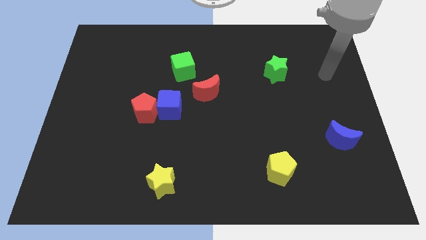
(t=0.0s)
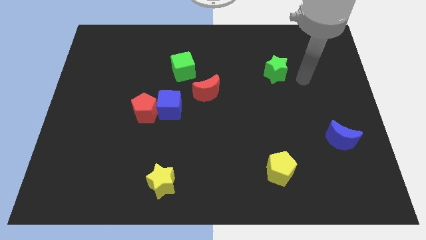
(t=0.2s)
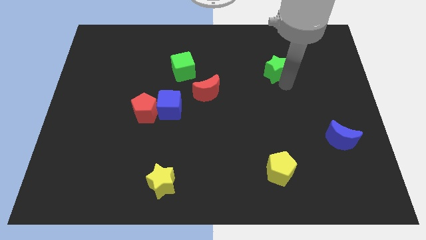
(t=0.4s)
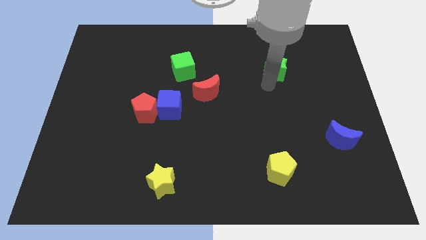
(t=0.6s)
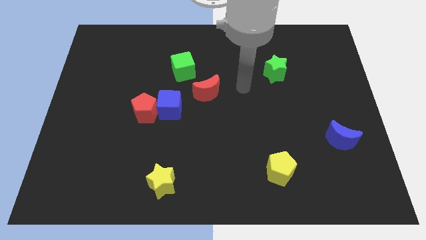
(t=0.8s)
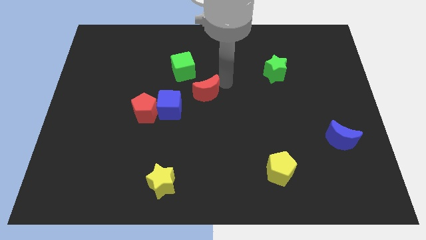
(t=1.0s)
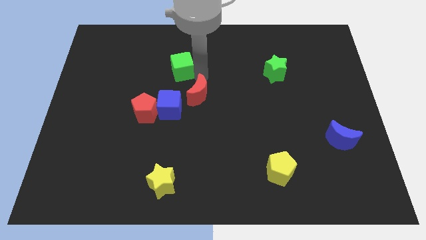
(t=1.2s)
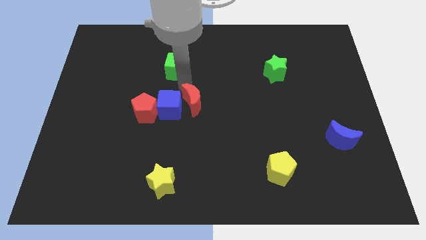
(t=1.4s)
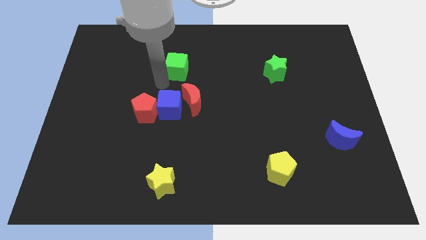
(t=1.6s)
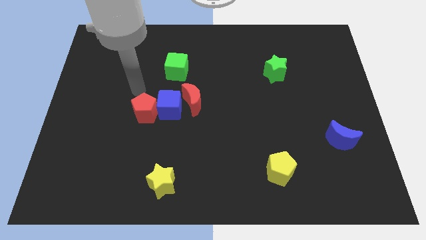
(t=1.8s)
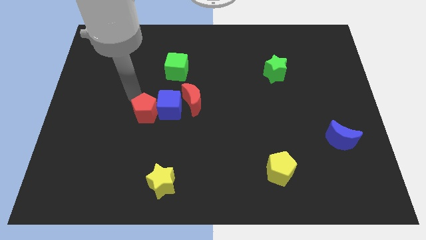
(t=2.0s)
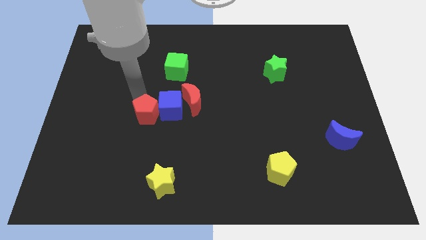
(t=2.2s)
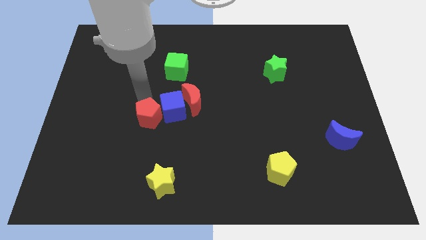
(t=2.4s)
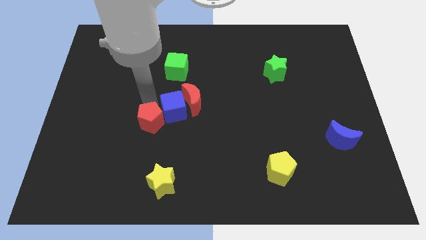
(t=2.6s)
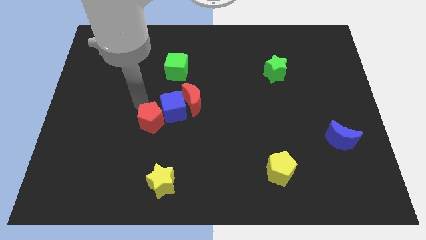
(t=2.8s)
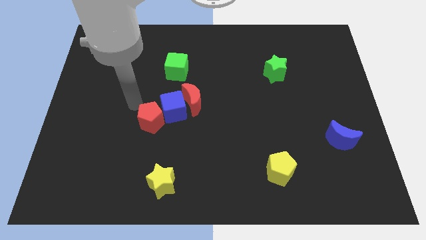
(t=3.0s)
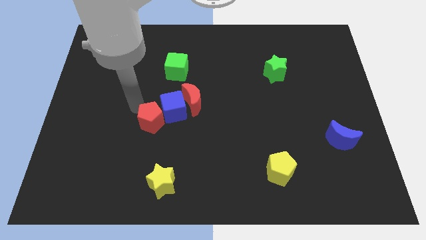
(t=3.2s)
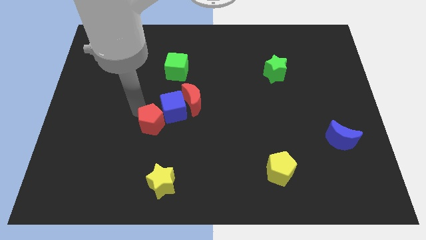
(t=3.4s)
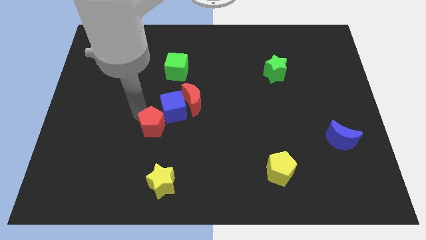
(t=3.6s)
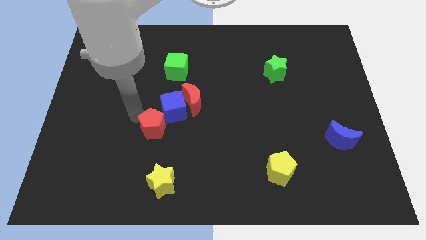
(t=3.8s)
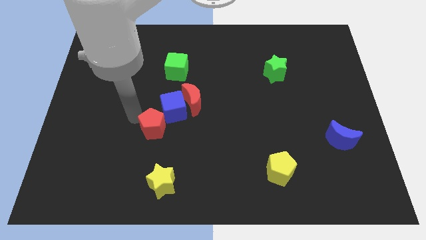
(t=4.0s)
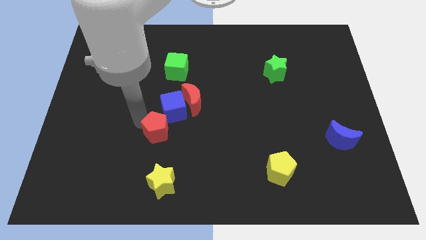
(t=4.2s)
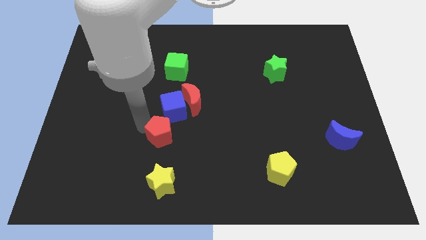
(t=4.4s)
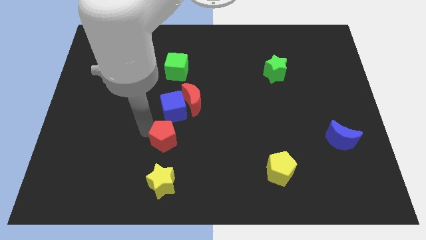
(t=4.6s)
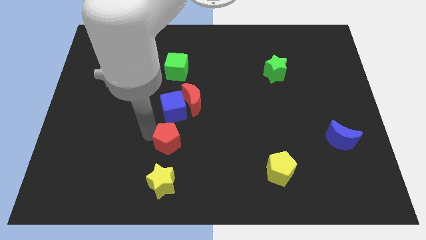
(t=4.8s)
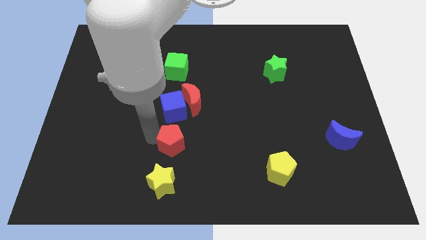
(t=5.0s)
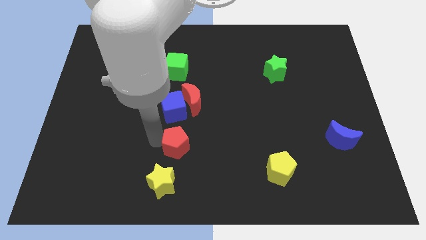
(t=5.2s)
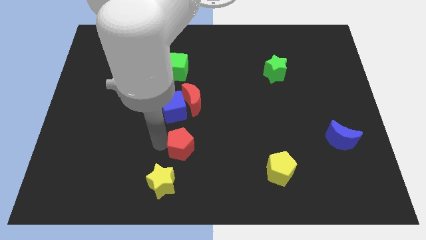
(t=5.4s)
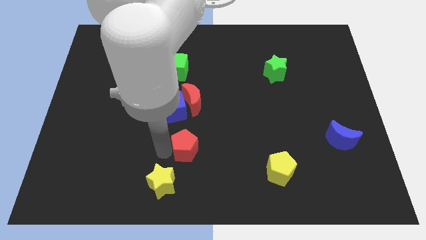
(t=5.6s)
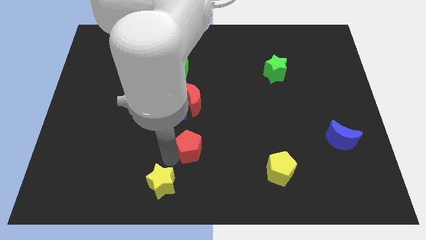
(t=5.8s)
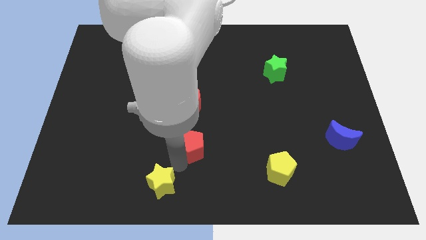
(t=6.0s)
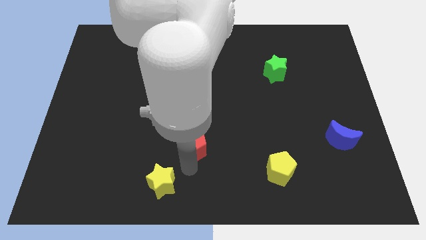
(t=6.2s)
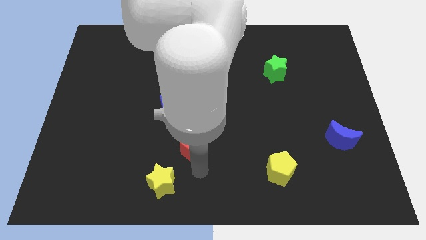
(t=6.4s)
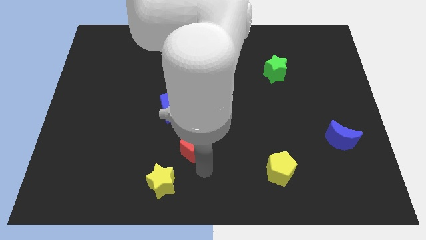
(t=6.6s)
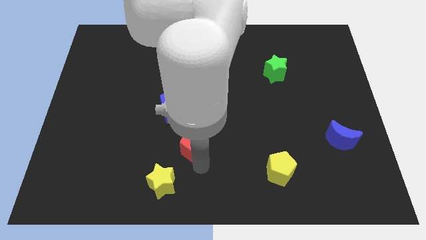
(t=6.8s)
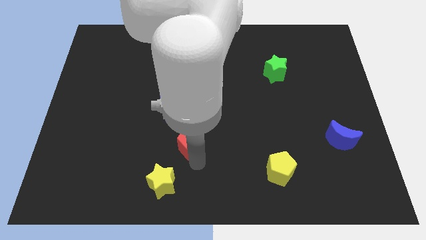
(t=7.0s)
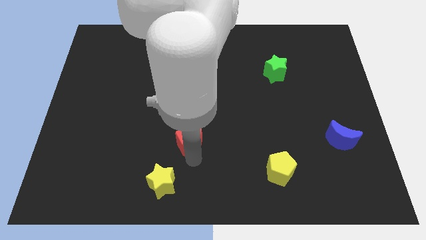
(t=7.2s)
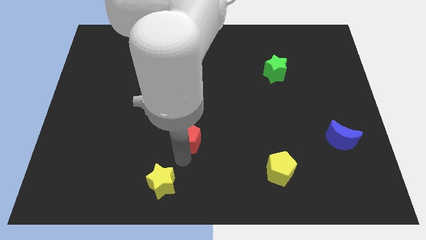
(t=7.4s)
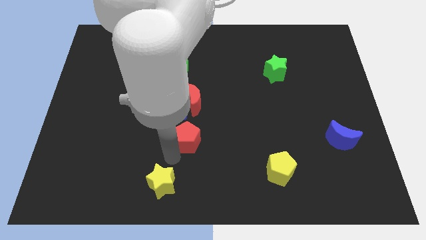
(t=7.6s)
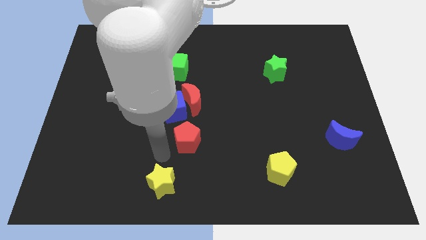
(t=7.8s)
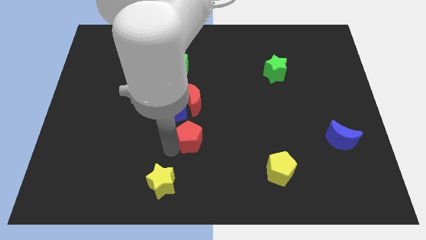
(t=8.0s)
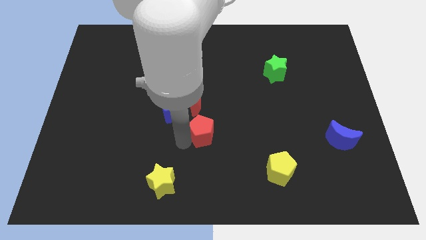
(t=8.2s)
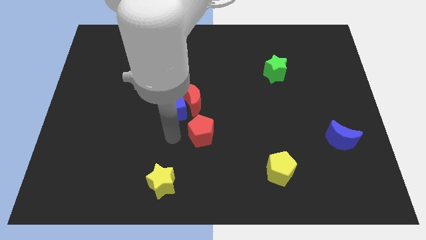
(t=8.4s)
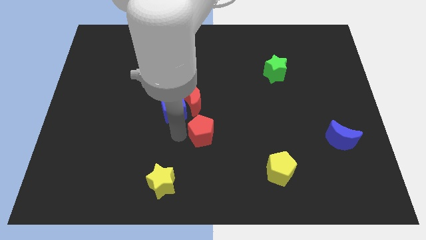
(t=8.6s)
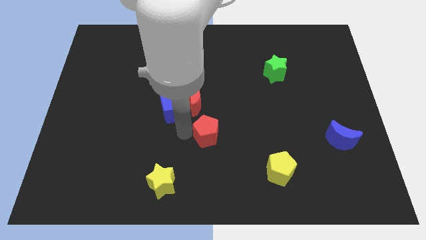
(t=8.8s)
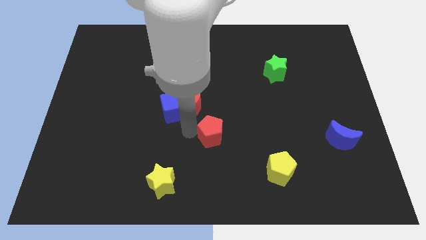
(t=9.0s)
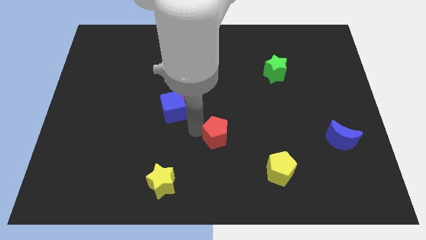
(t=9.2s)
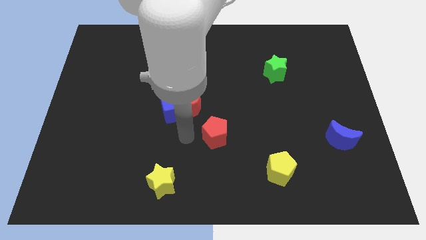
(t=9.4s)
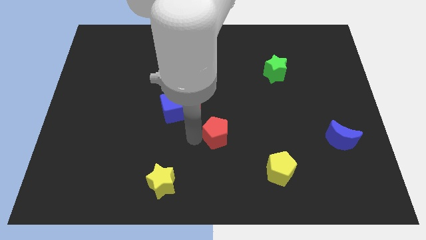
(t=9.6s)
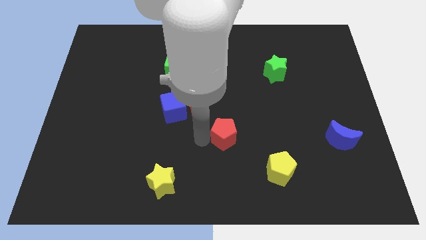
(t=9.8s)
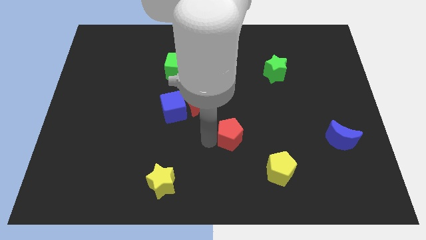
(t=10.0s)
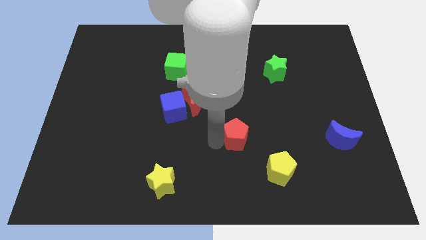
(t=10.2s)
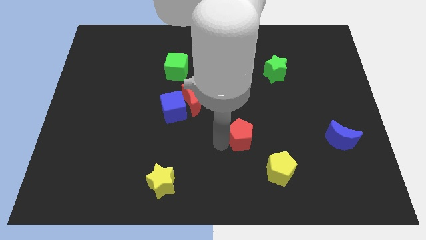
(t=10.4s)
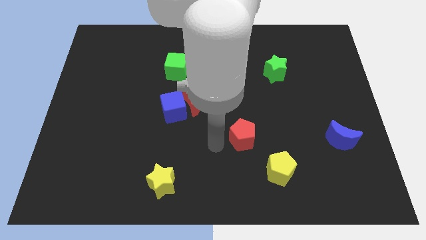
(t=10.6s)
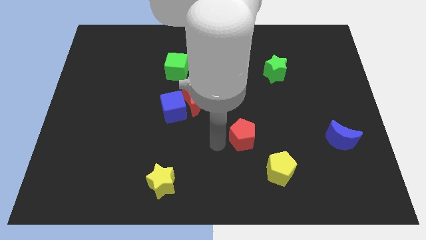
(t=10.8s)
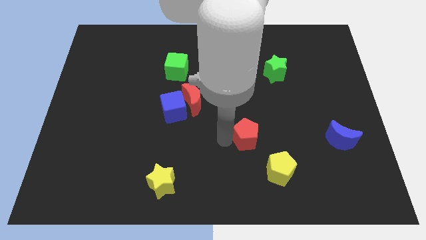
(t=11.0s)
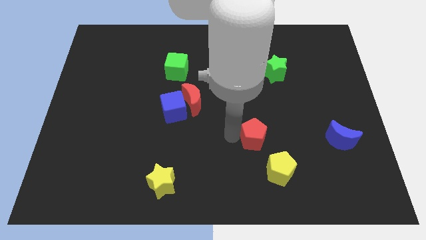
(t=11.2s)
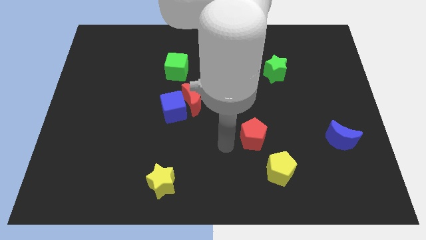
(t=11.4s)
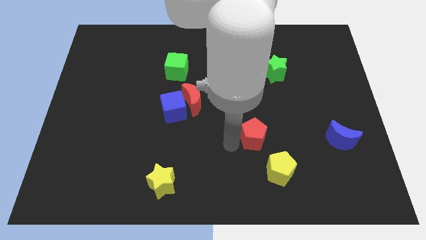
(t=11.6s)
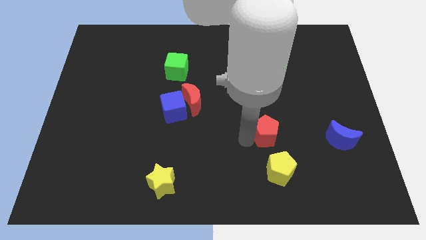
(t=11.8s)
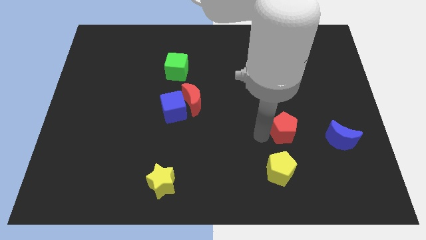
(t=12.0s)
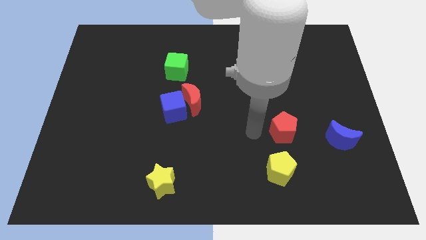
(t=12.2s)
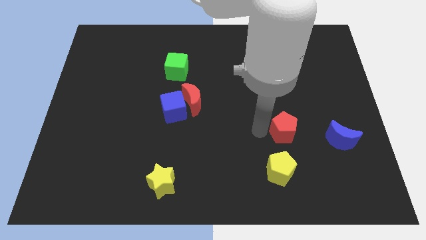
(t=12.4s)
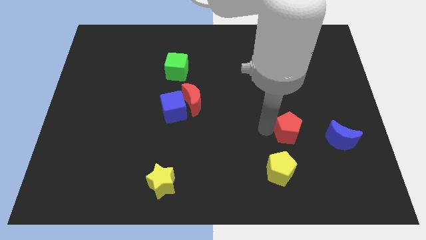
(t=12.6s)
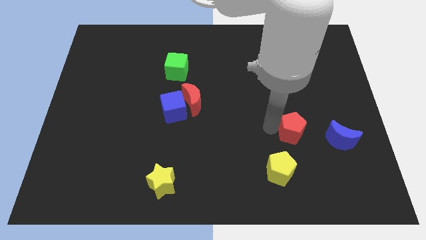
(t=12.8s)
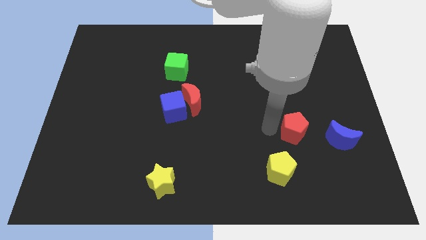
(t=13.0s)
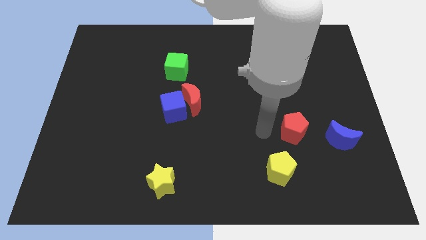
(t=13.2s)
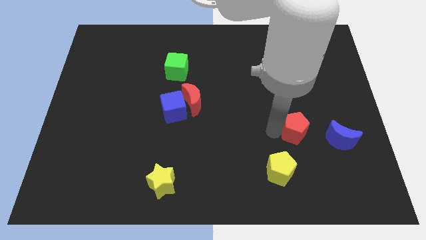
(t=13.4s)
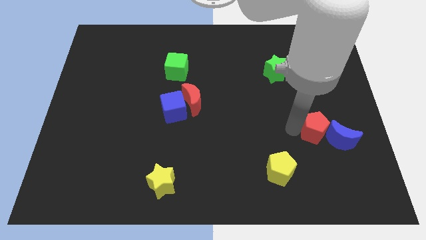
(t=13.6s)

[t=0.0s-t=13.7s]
put the red pentagon to the blue moon

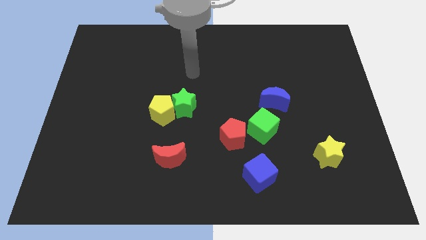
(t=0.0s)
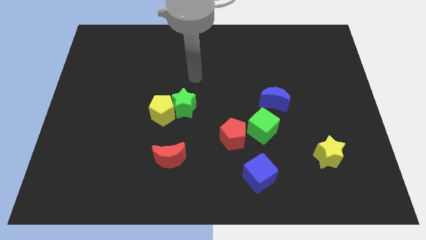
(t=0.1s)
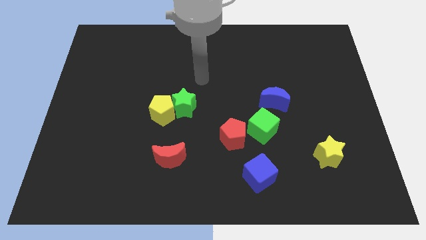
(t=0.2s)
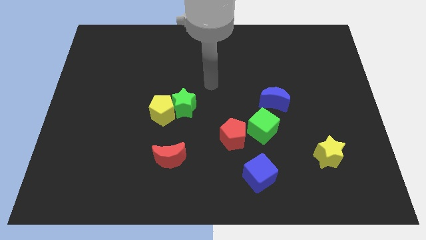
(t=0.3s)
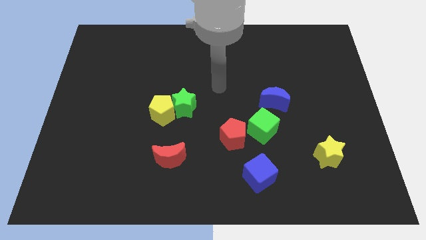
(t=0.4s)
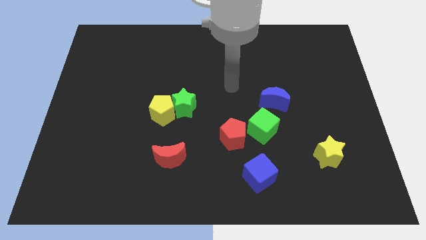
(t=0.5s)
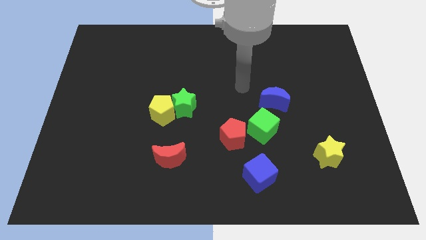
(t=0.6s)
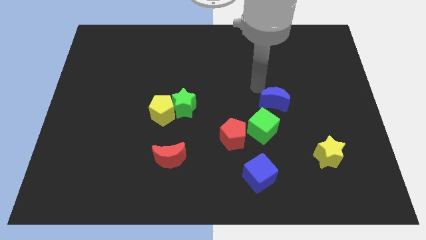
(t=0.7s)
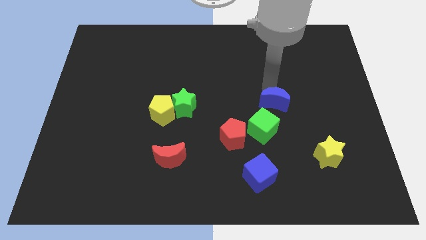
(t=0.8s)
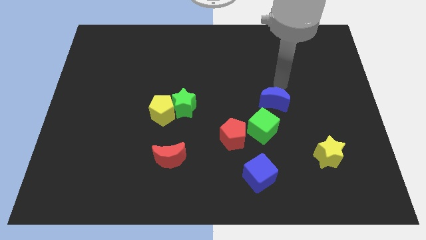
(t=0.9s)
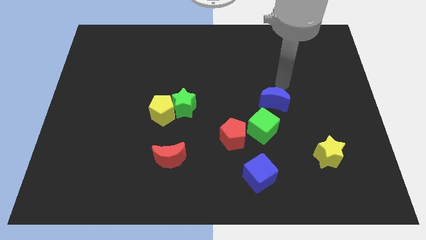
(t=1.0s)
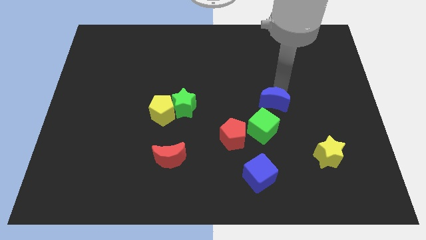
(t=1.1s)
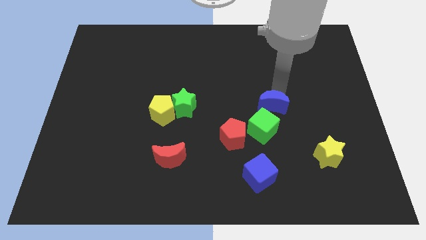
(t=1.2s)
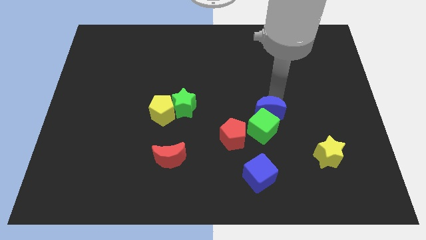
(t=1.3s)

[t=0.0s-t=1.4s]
move the blue moon next to the green cube
